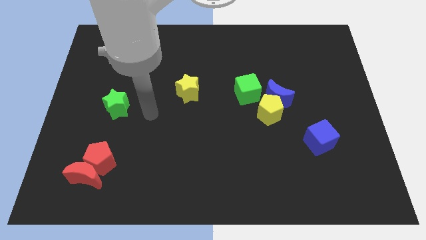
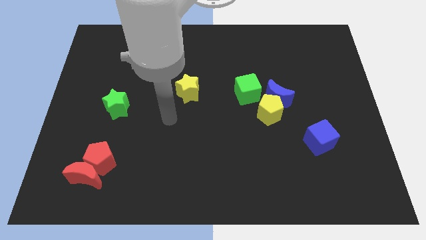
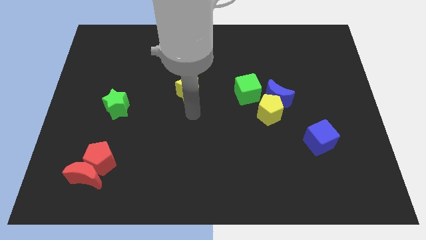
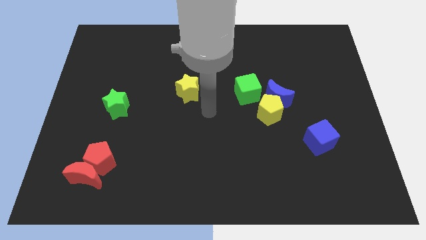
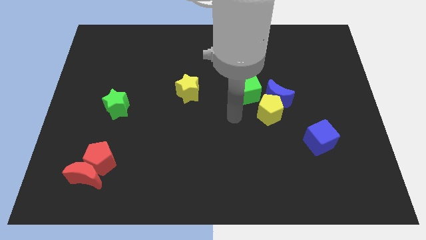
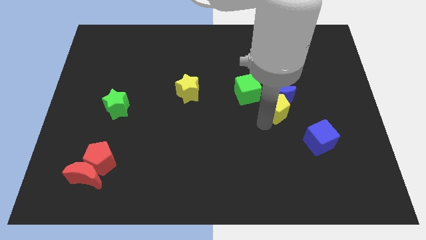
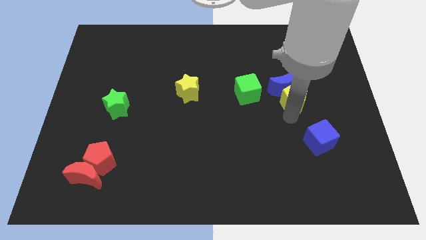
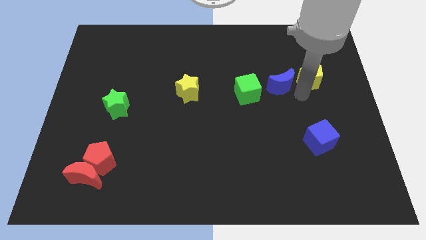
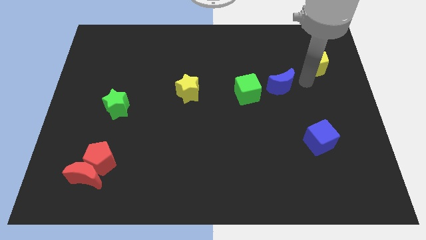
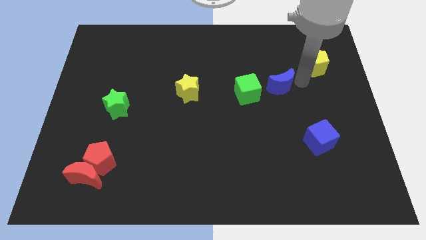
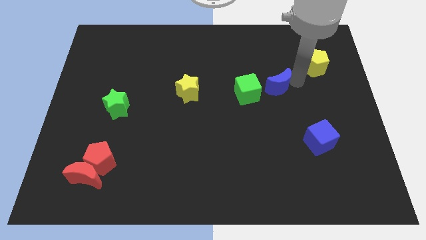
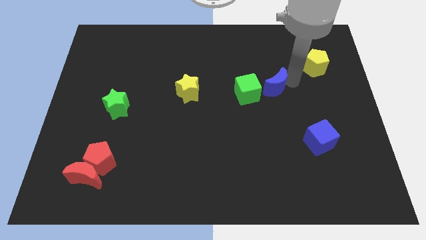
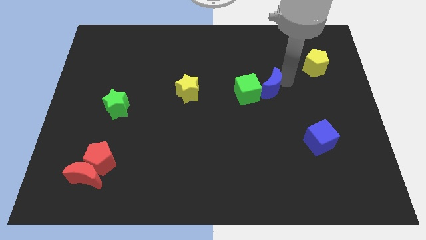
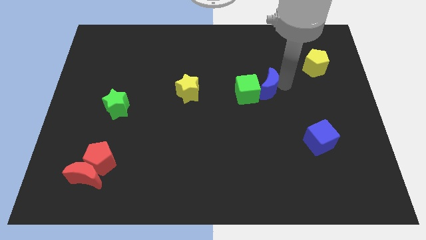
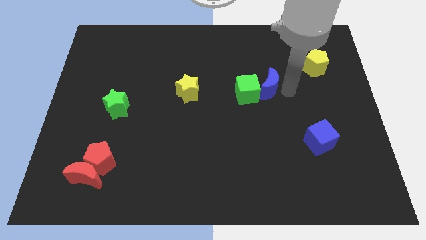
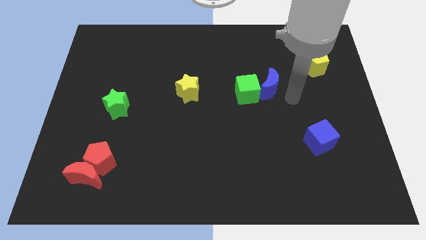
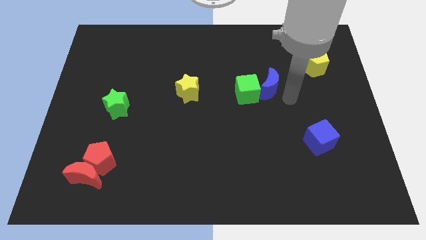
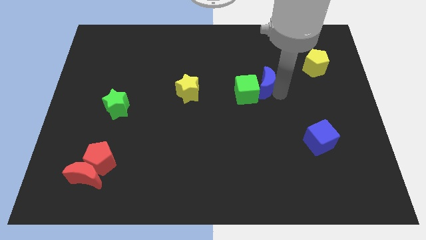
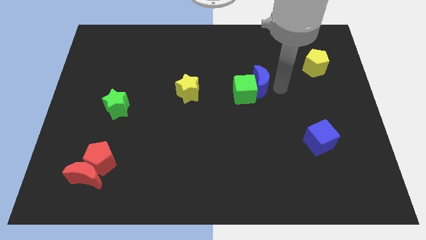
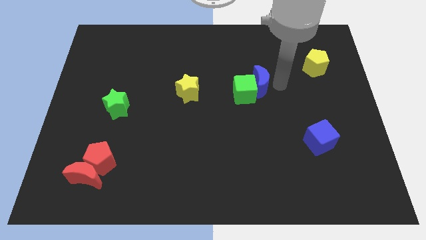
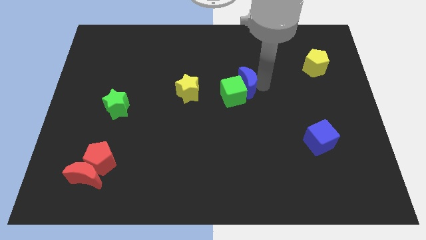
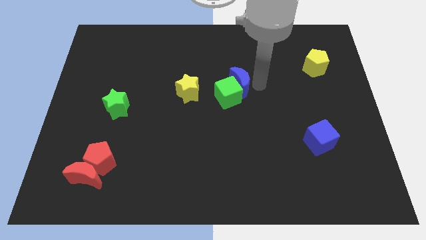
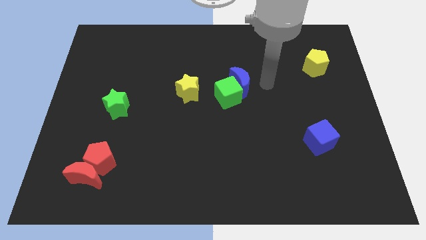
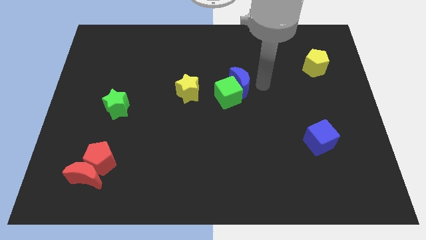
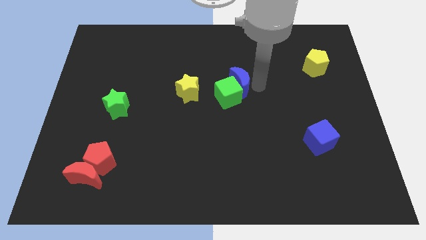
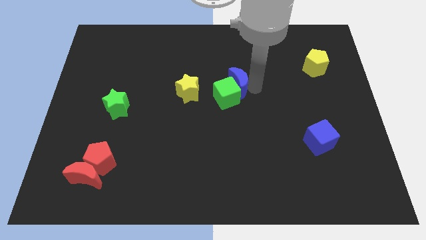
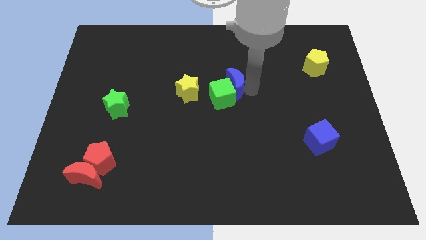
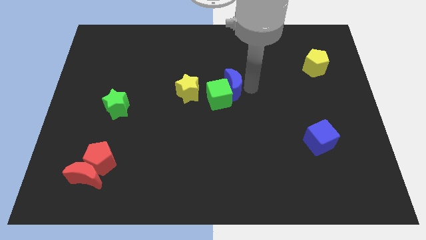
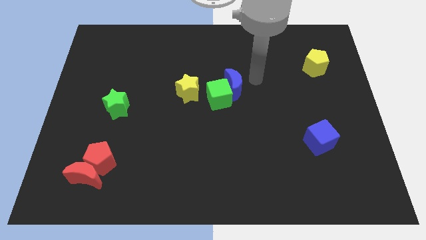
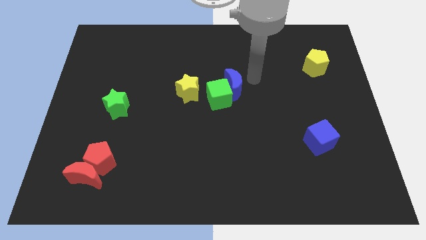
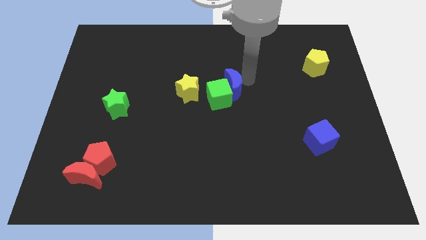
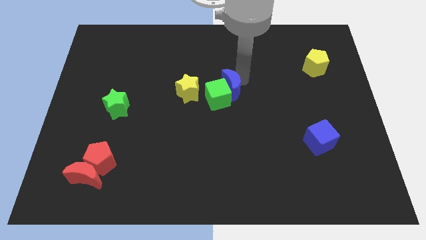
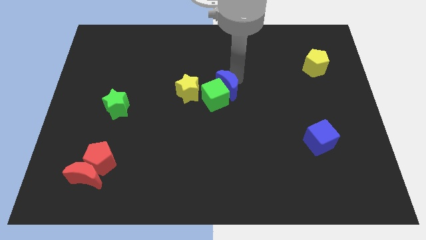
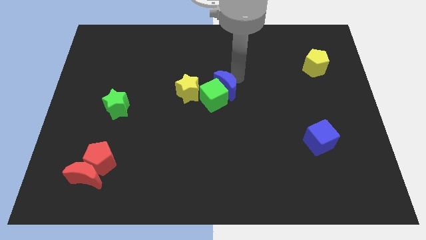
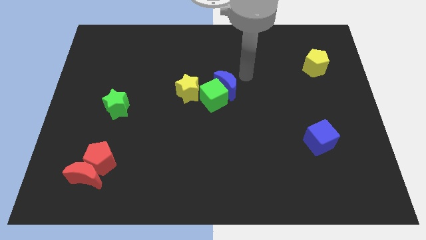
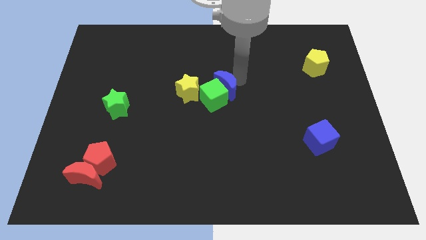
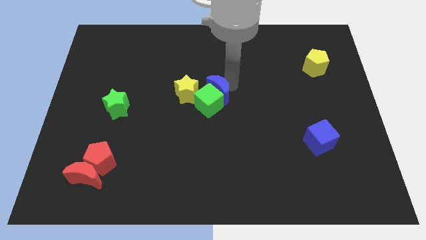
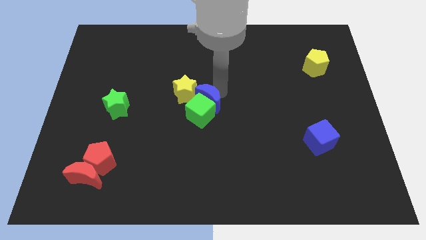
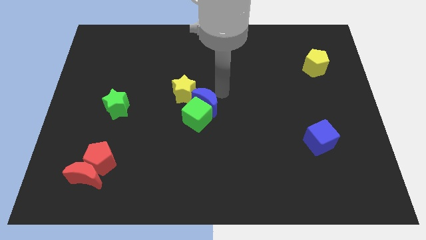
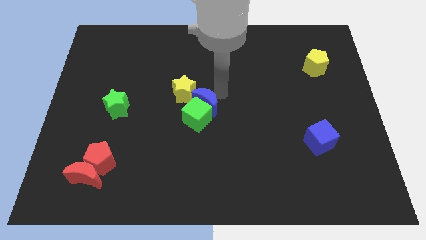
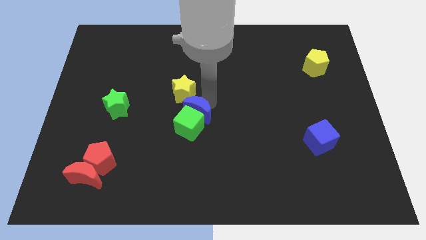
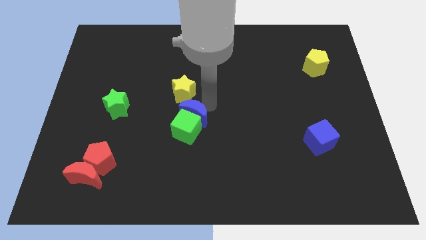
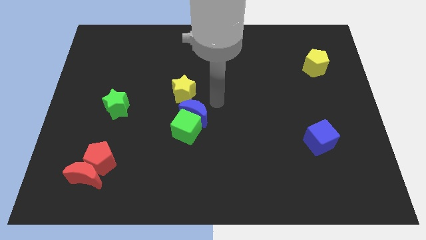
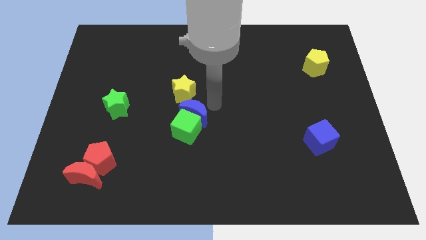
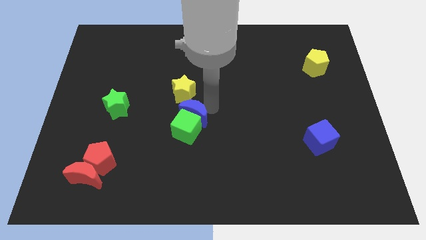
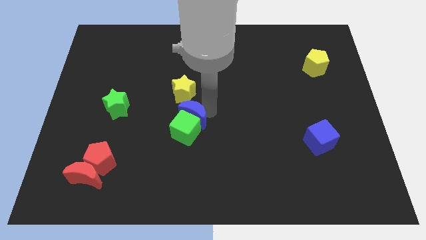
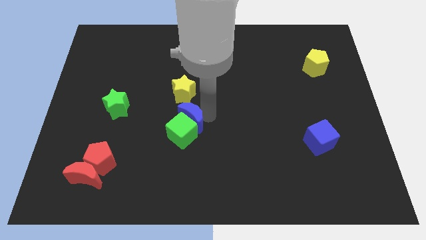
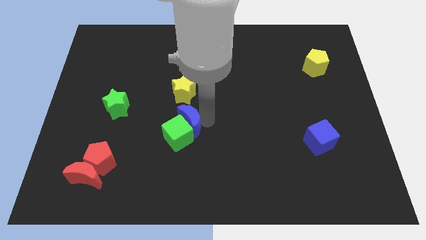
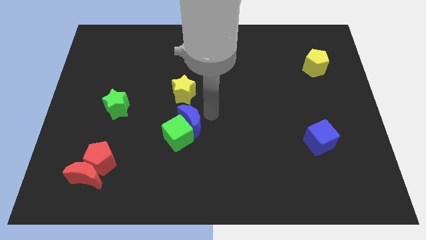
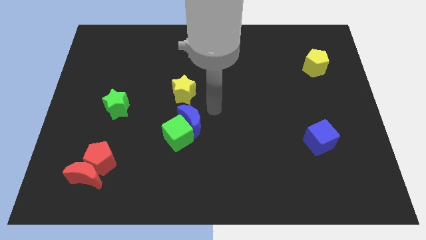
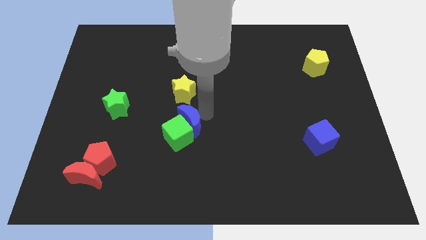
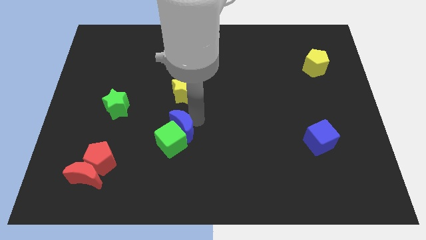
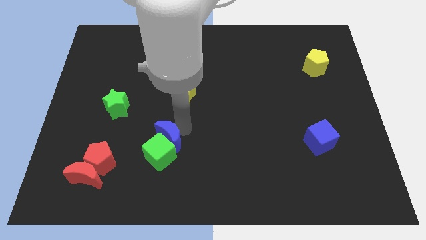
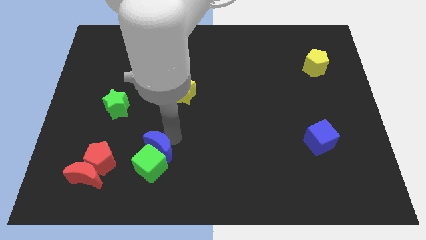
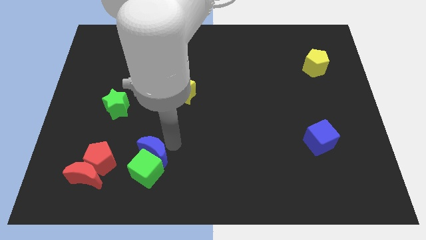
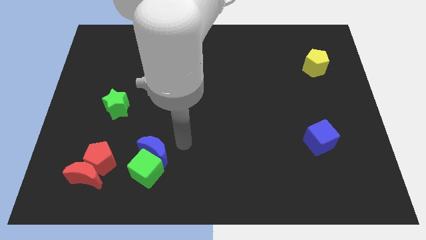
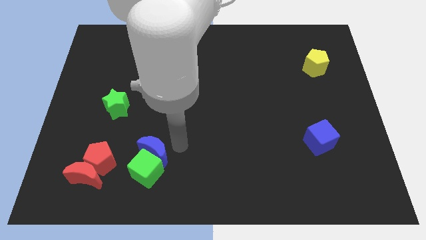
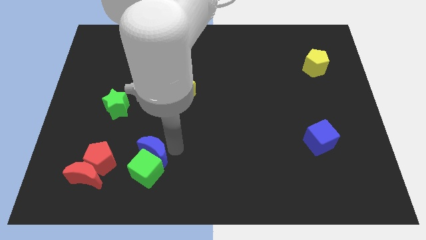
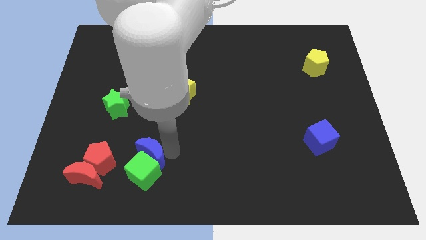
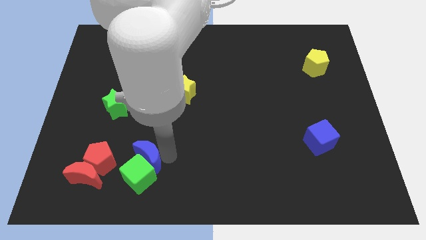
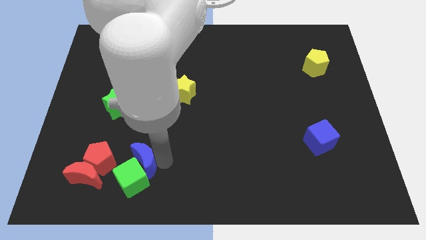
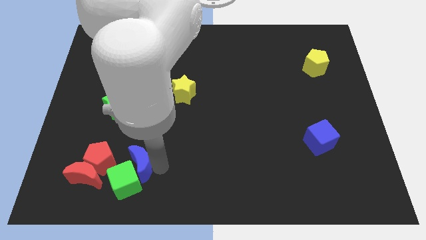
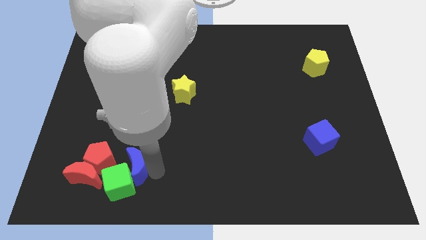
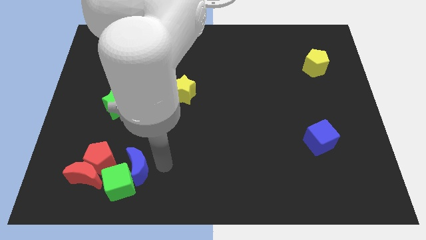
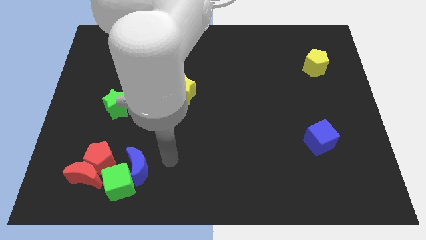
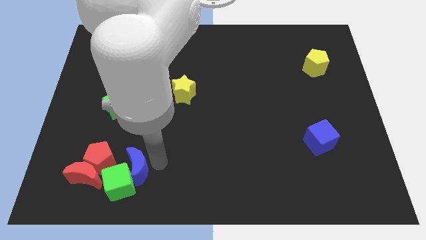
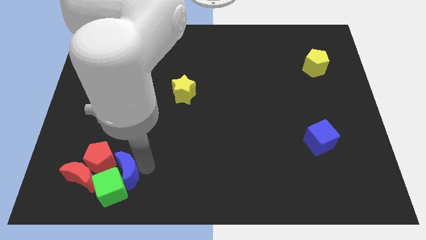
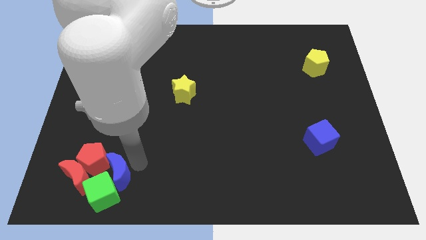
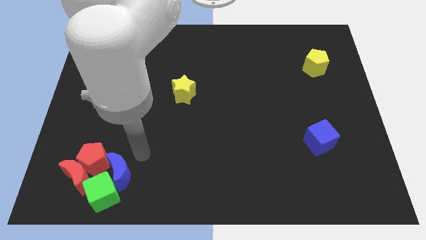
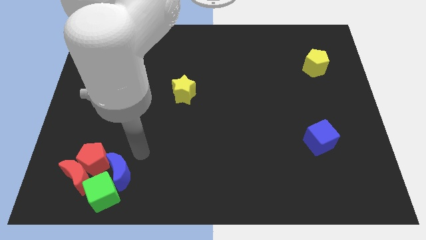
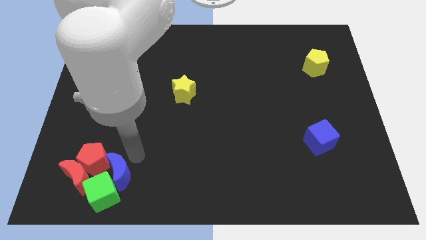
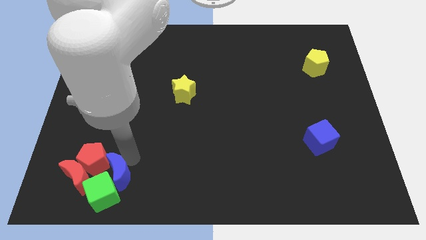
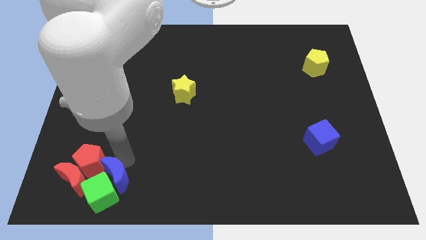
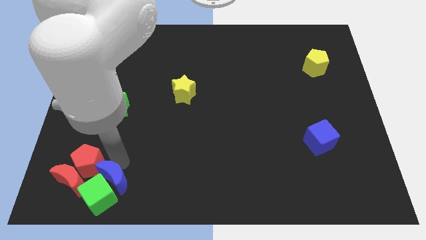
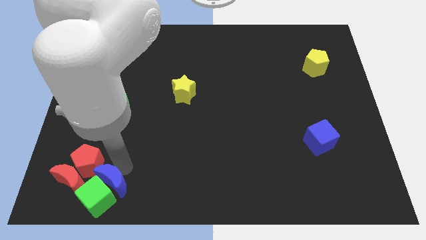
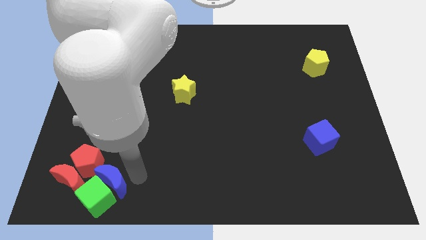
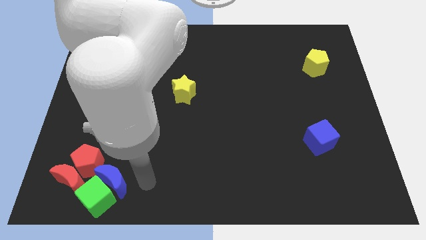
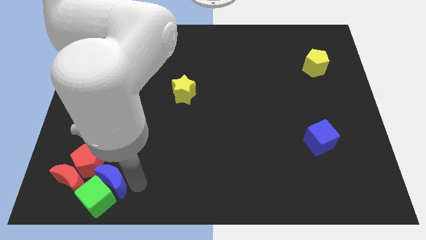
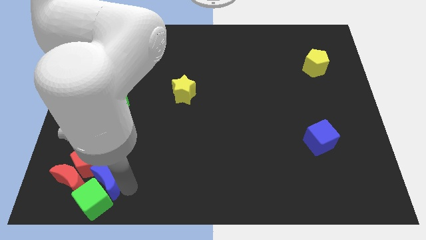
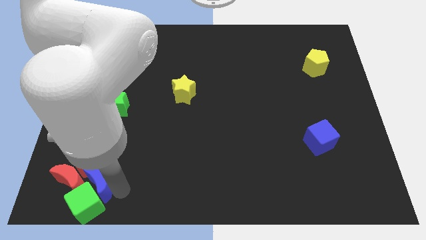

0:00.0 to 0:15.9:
slide the blue moon towards the red moon
